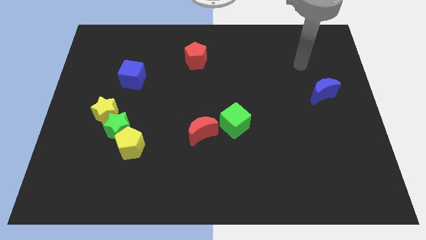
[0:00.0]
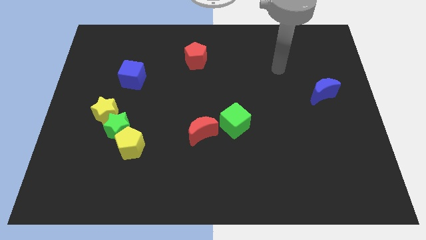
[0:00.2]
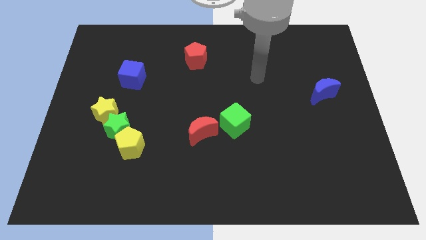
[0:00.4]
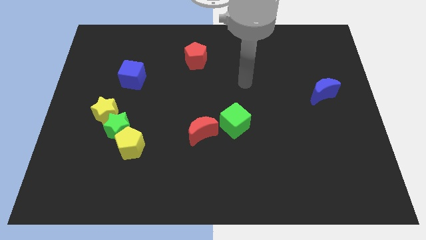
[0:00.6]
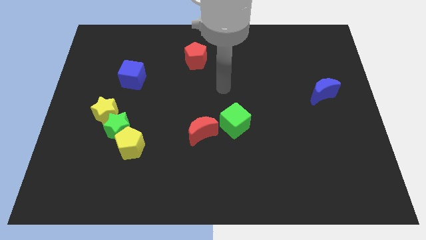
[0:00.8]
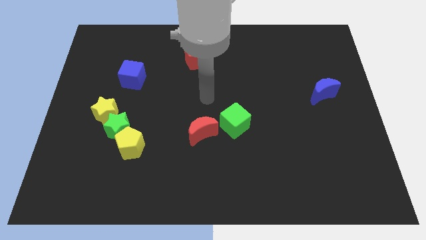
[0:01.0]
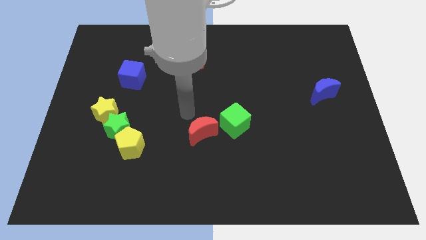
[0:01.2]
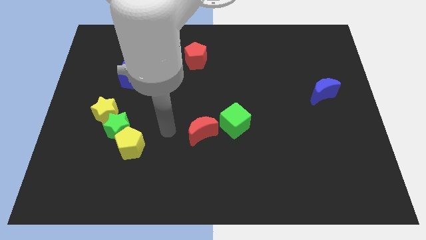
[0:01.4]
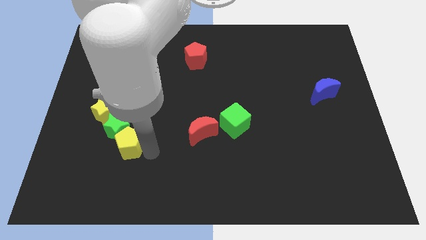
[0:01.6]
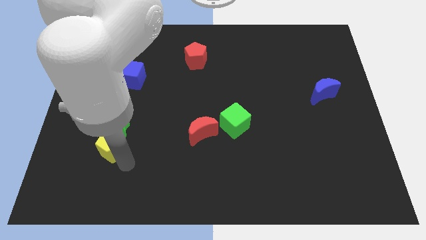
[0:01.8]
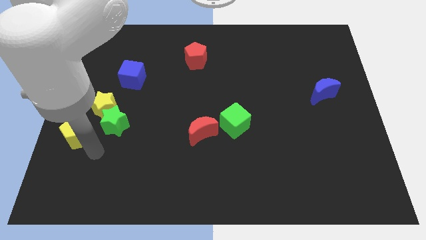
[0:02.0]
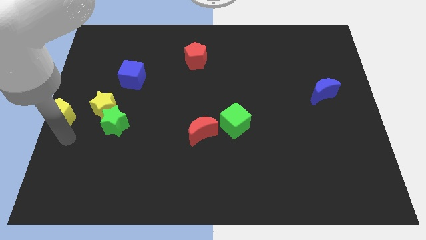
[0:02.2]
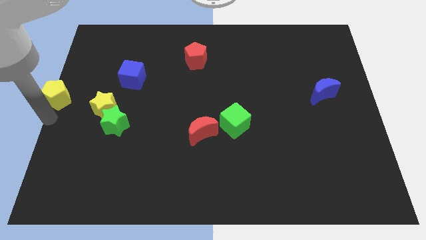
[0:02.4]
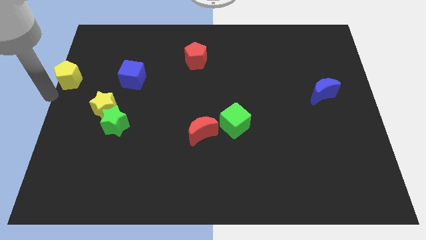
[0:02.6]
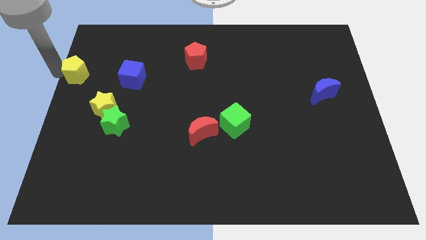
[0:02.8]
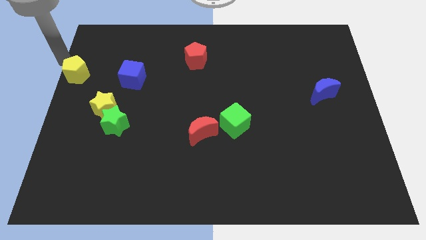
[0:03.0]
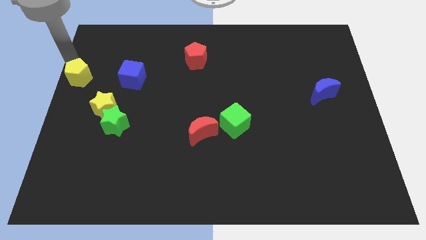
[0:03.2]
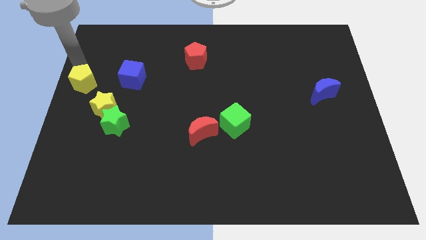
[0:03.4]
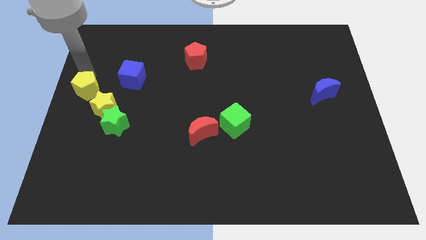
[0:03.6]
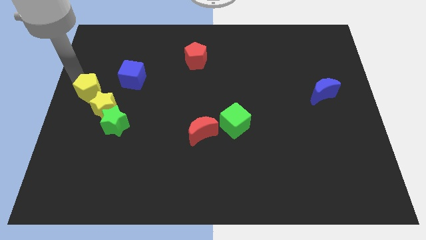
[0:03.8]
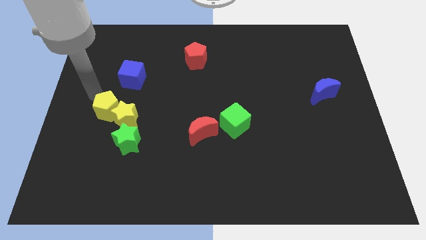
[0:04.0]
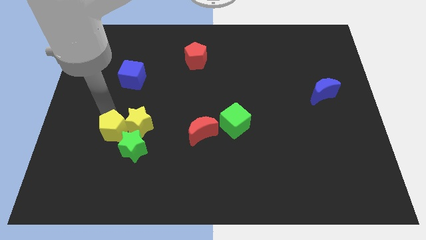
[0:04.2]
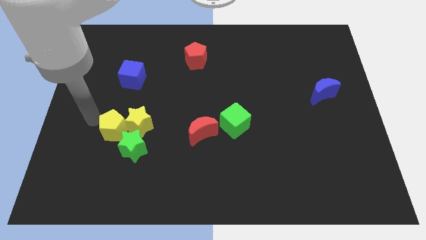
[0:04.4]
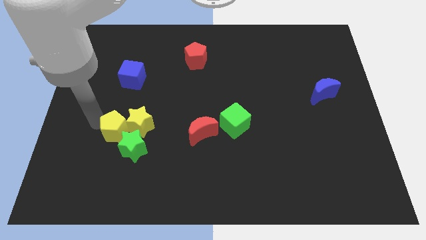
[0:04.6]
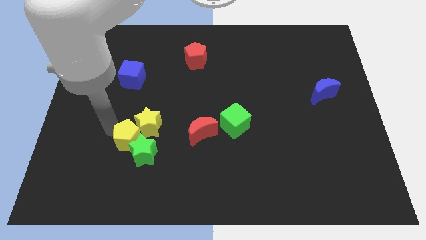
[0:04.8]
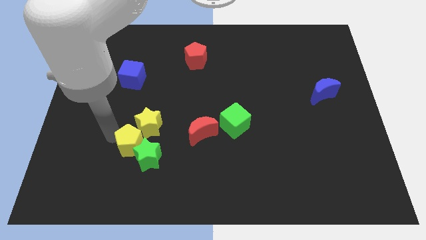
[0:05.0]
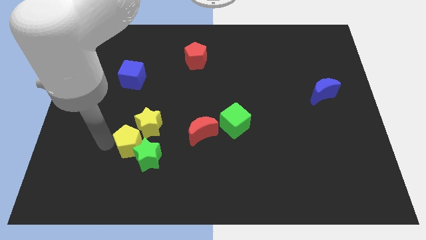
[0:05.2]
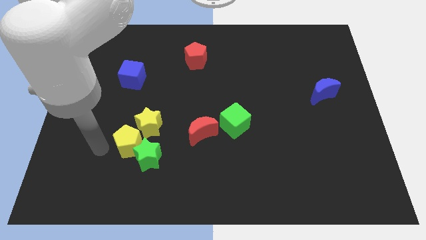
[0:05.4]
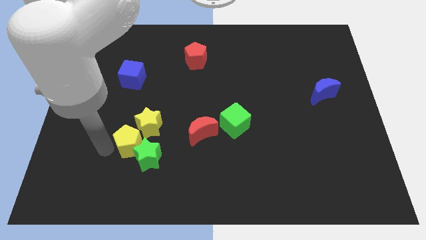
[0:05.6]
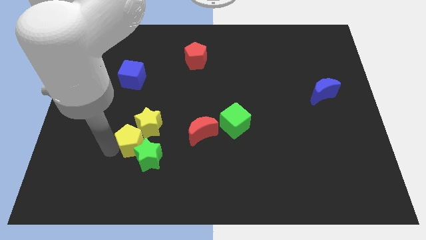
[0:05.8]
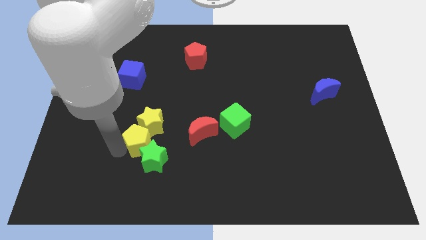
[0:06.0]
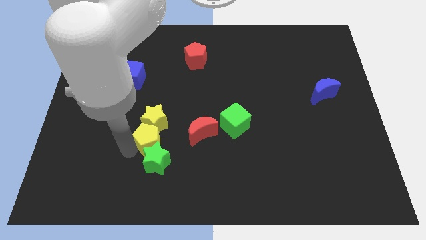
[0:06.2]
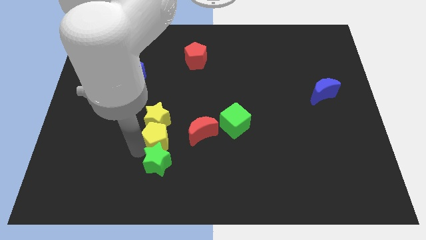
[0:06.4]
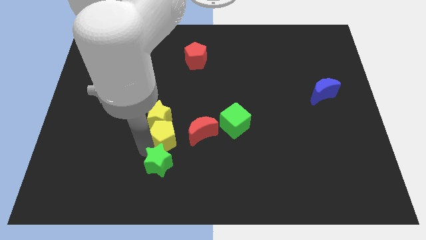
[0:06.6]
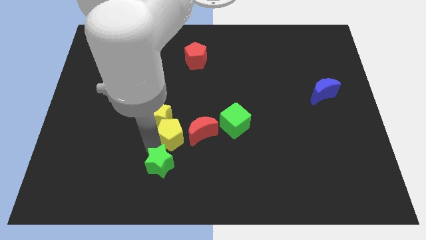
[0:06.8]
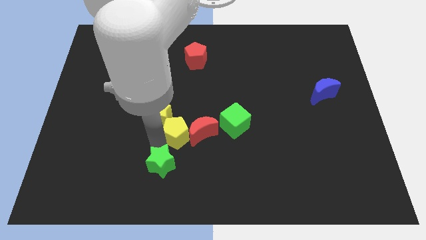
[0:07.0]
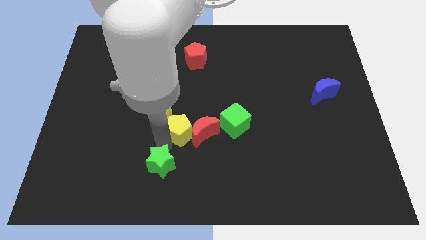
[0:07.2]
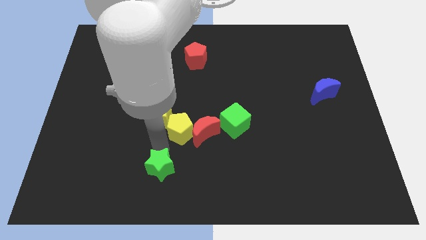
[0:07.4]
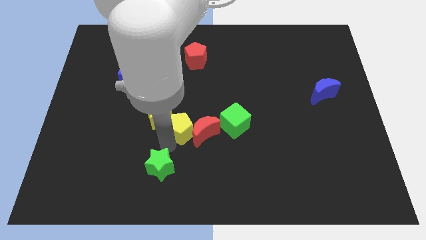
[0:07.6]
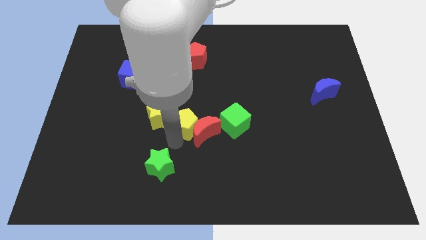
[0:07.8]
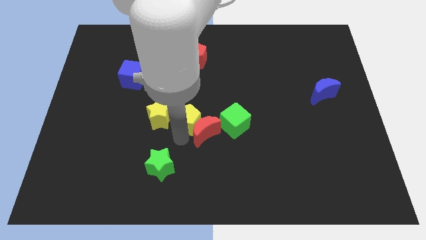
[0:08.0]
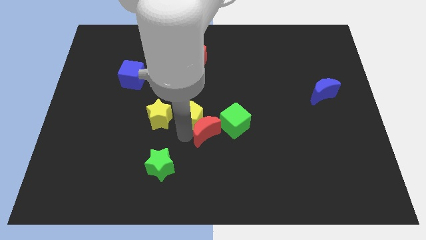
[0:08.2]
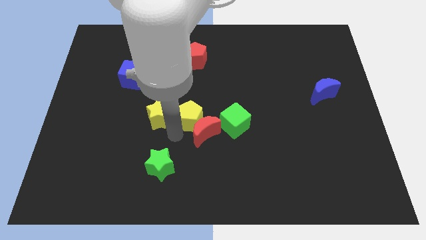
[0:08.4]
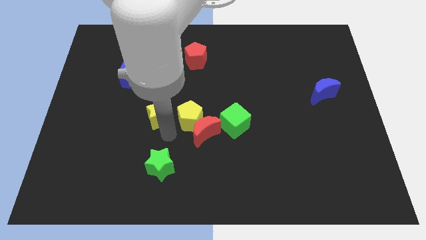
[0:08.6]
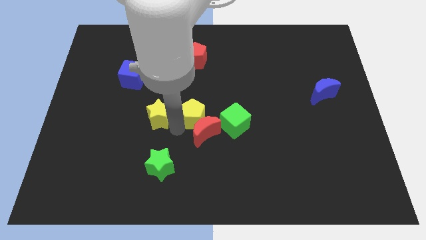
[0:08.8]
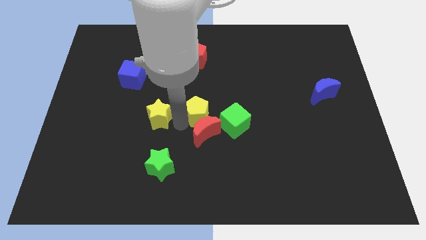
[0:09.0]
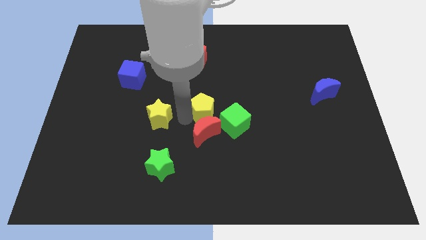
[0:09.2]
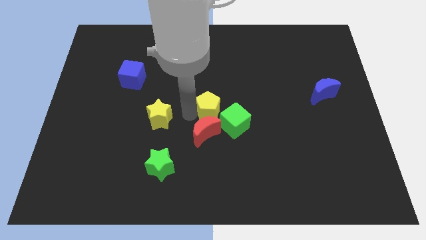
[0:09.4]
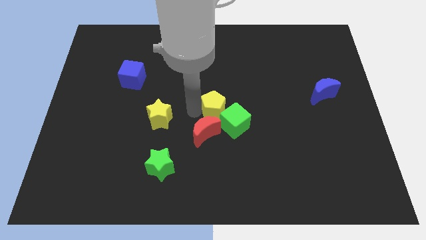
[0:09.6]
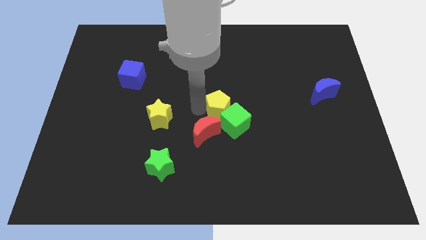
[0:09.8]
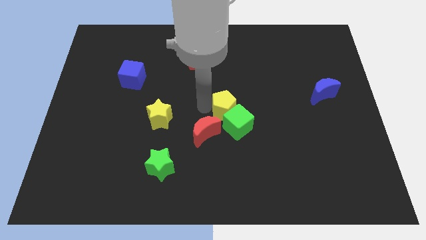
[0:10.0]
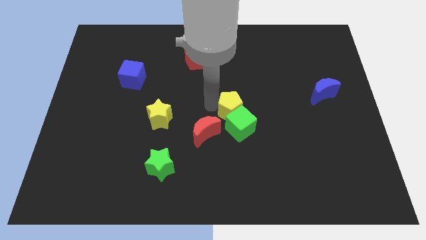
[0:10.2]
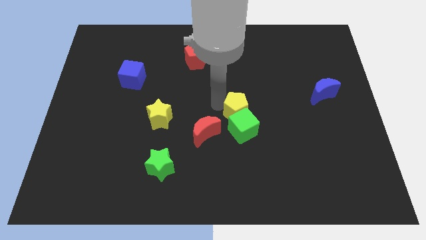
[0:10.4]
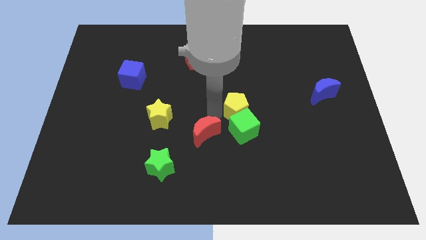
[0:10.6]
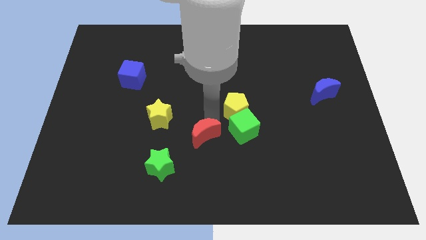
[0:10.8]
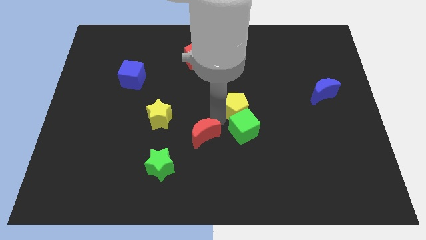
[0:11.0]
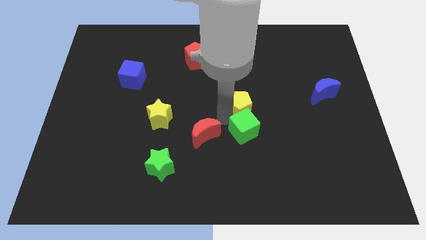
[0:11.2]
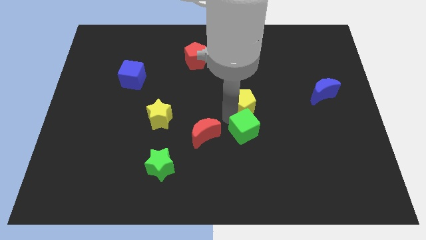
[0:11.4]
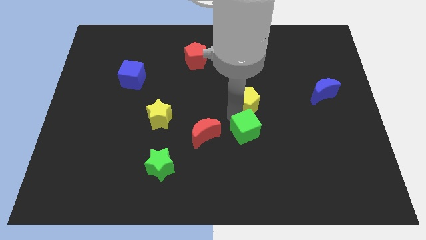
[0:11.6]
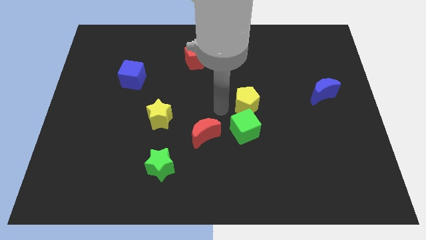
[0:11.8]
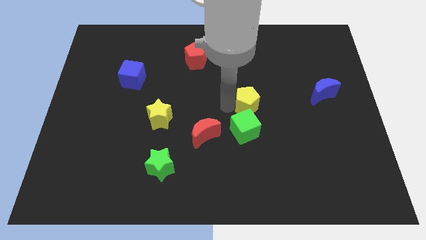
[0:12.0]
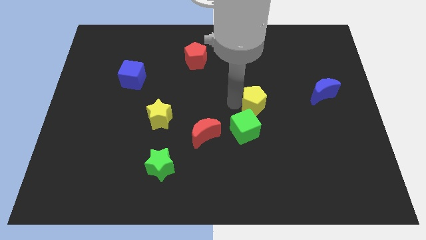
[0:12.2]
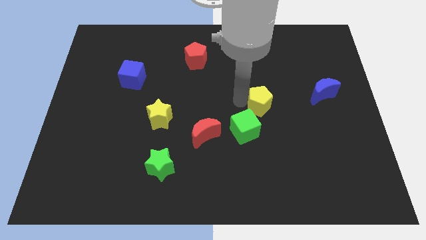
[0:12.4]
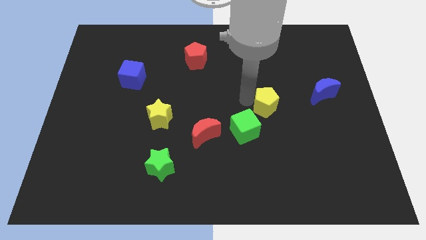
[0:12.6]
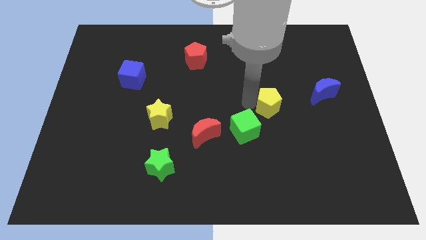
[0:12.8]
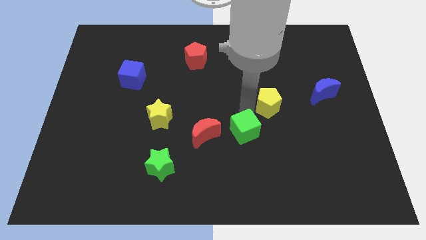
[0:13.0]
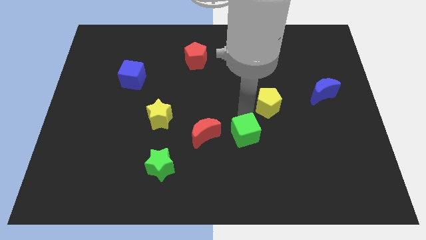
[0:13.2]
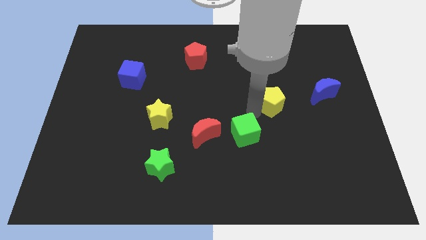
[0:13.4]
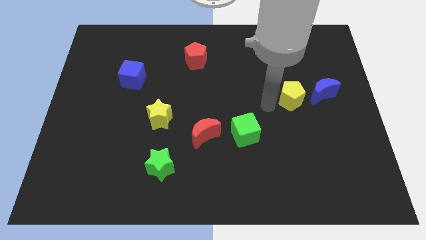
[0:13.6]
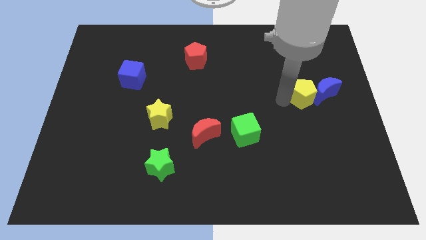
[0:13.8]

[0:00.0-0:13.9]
move the yellow pentagon to the blue moon

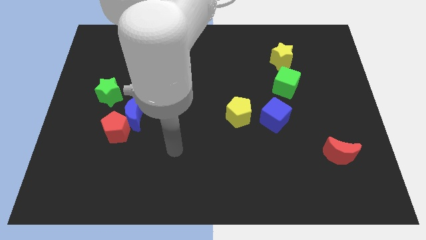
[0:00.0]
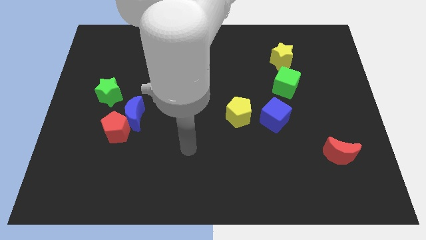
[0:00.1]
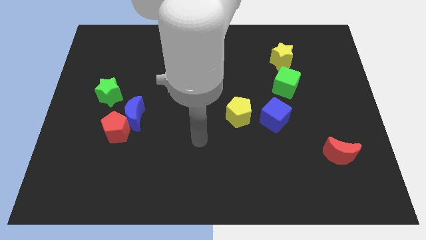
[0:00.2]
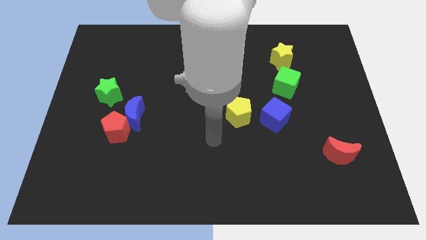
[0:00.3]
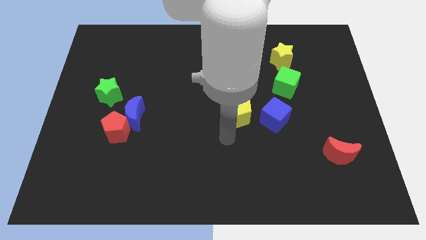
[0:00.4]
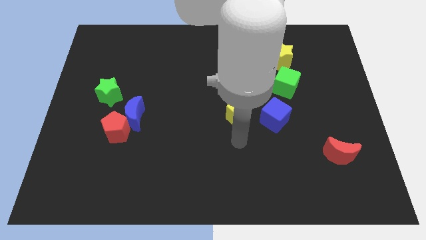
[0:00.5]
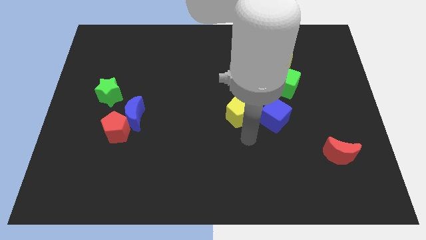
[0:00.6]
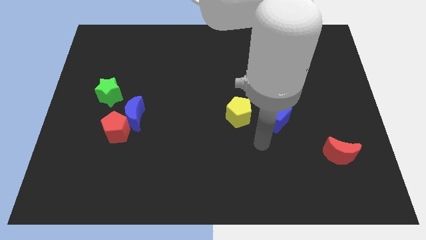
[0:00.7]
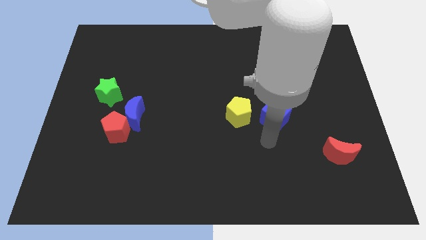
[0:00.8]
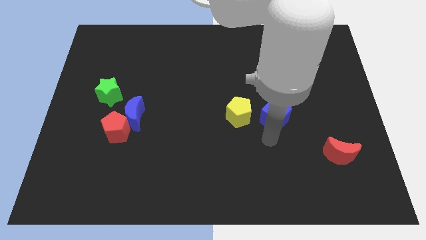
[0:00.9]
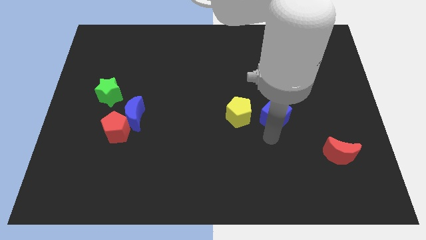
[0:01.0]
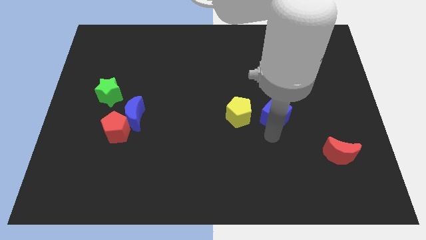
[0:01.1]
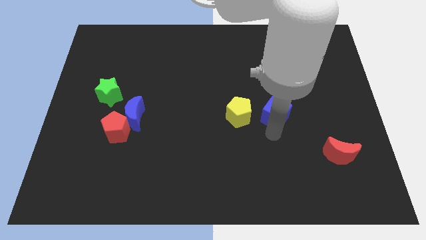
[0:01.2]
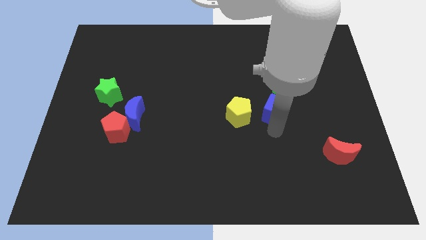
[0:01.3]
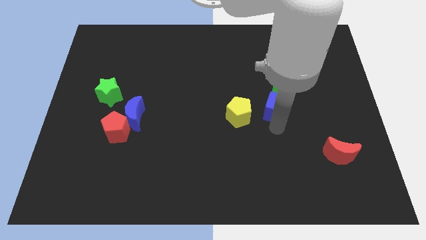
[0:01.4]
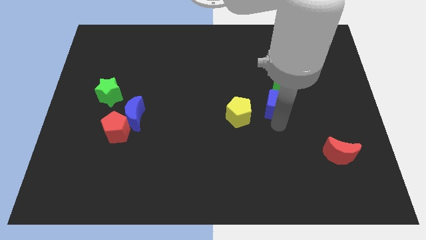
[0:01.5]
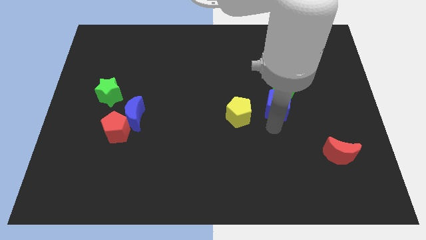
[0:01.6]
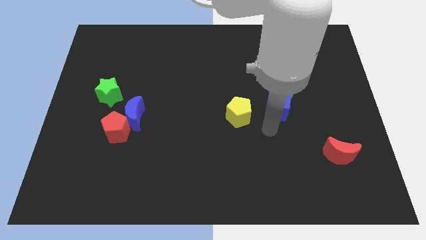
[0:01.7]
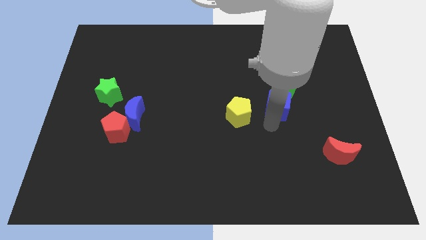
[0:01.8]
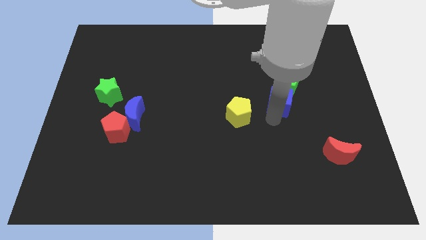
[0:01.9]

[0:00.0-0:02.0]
slide the blue cube towards the green cube
